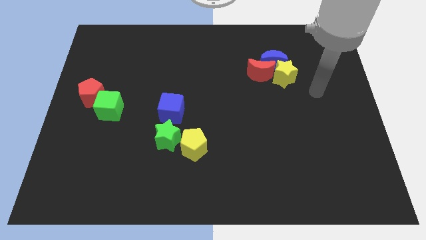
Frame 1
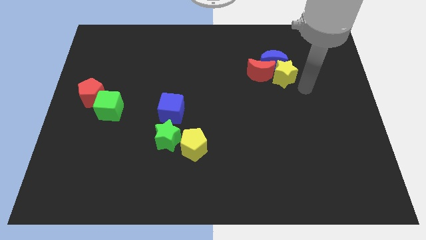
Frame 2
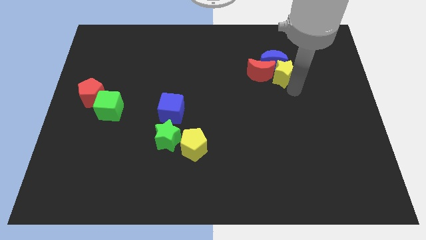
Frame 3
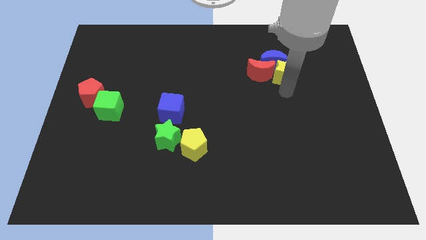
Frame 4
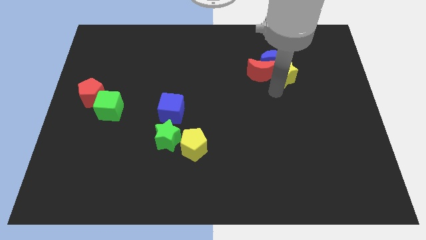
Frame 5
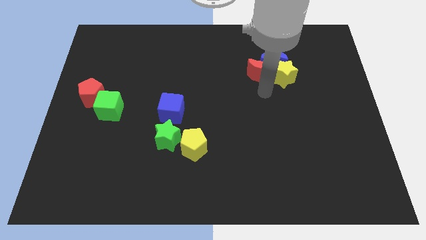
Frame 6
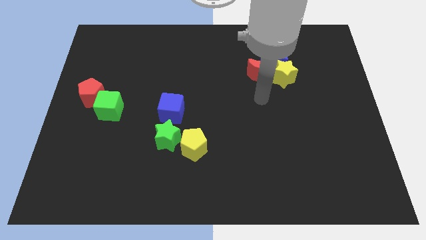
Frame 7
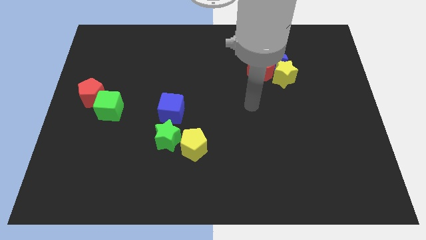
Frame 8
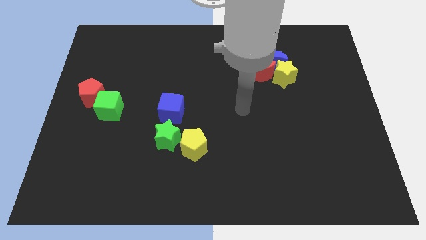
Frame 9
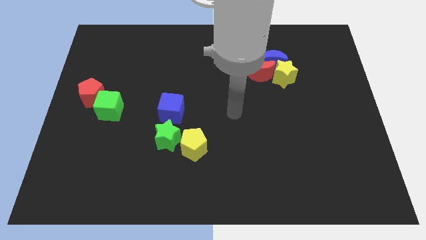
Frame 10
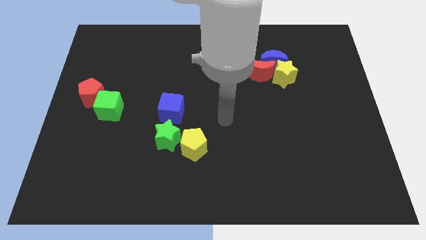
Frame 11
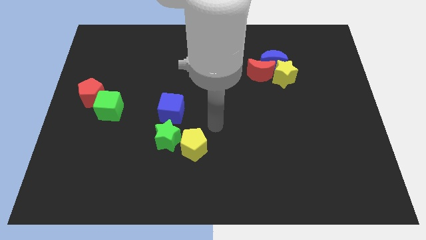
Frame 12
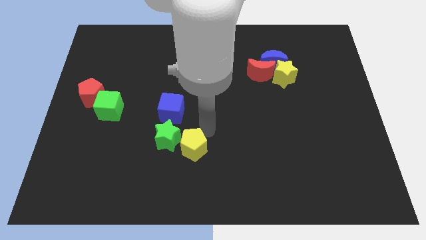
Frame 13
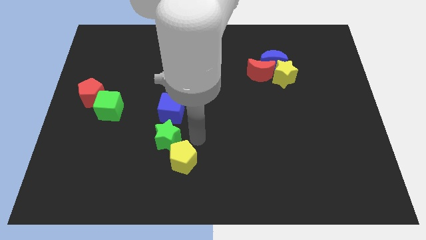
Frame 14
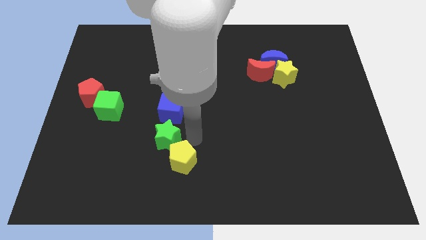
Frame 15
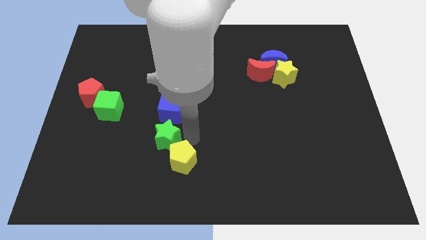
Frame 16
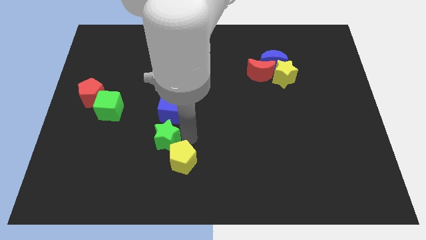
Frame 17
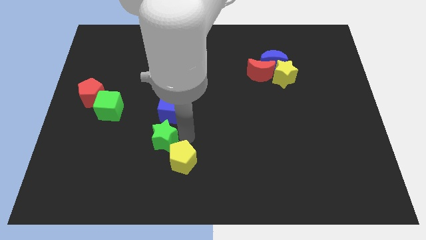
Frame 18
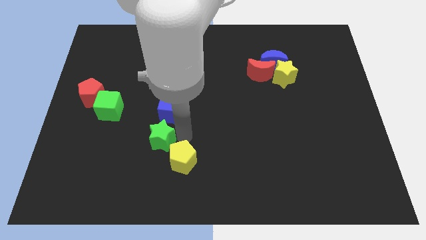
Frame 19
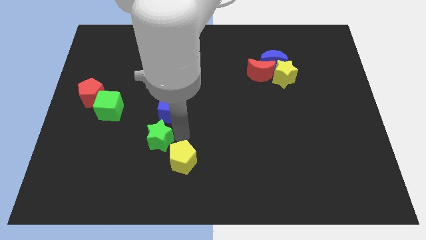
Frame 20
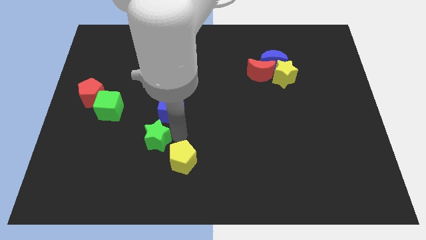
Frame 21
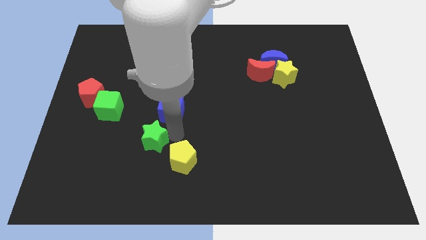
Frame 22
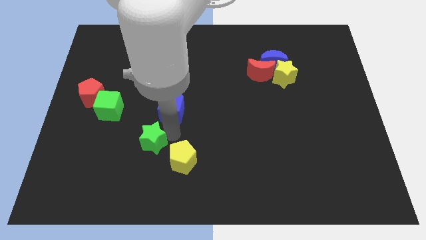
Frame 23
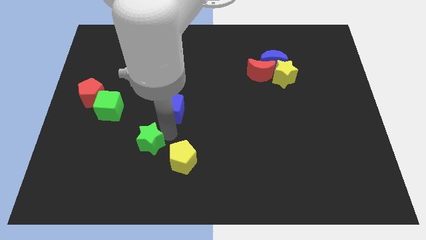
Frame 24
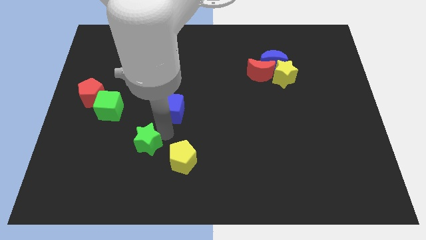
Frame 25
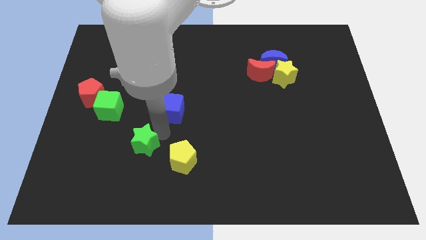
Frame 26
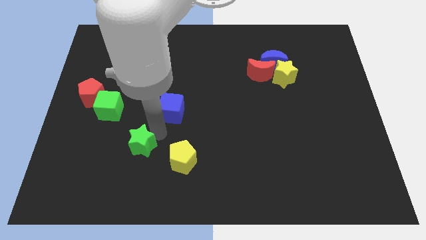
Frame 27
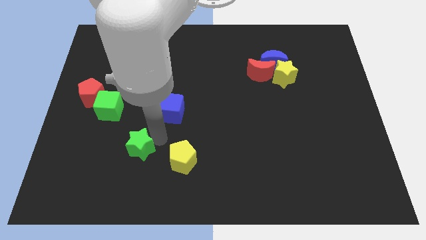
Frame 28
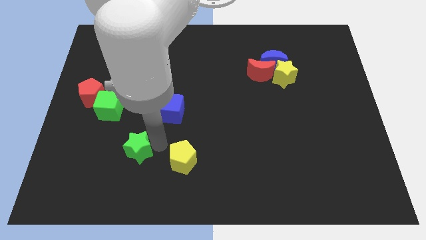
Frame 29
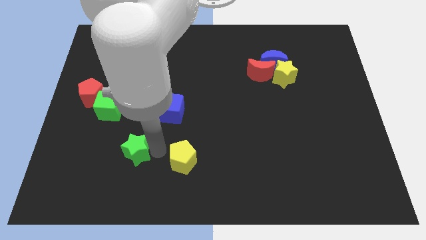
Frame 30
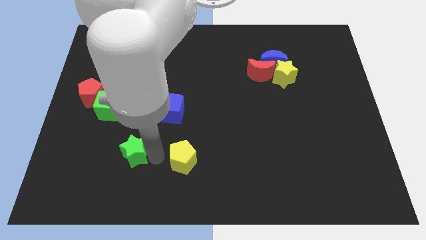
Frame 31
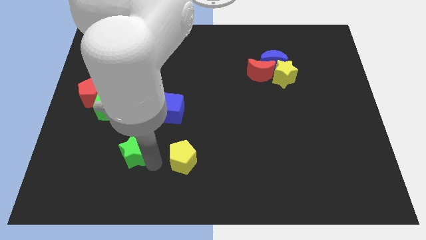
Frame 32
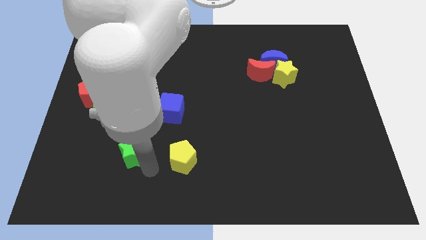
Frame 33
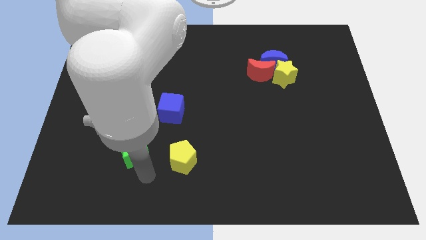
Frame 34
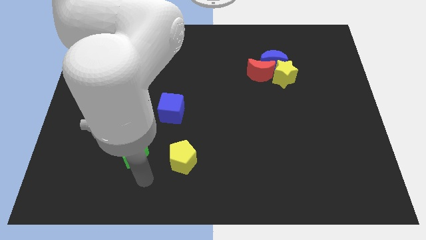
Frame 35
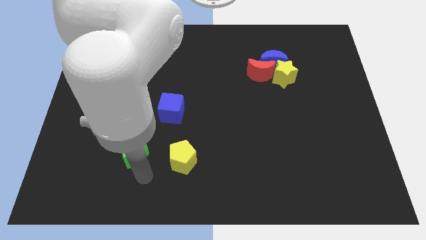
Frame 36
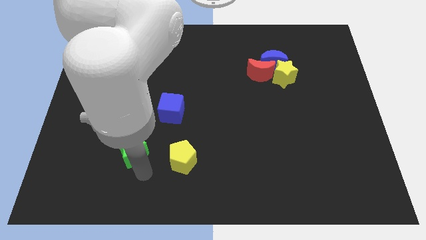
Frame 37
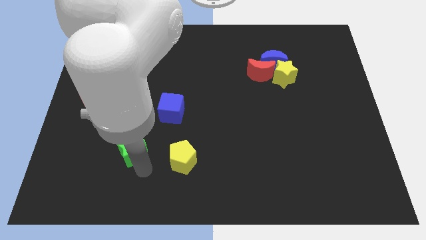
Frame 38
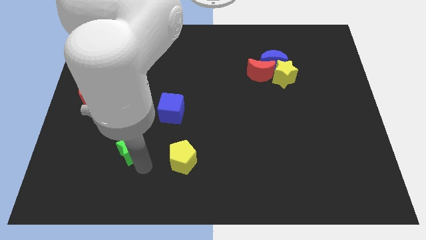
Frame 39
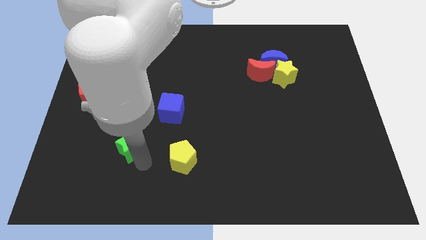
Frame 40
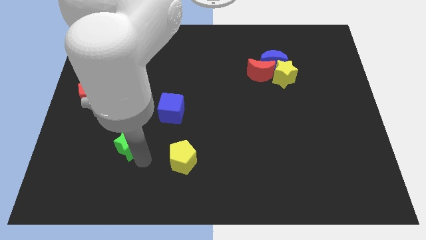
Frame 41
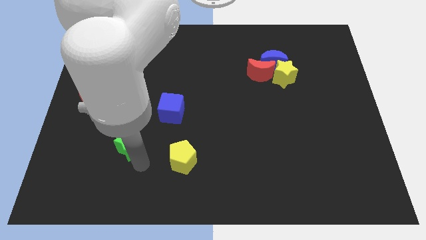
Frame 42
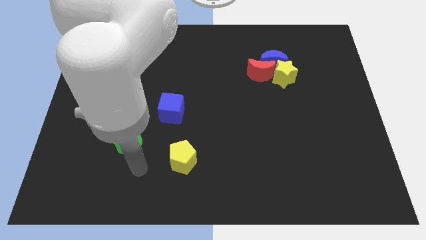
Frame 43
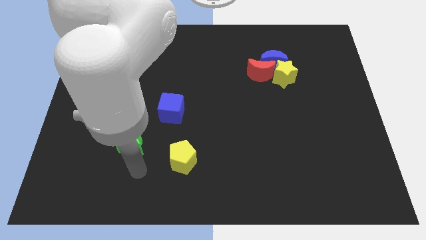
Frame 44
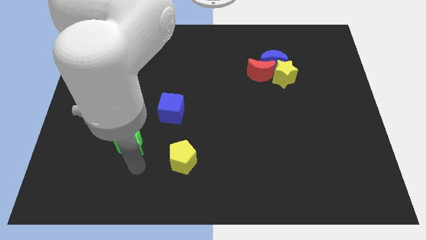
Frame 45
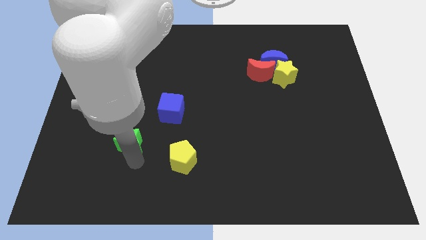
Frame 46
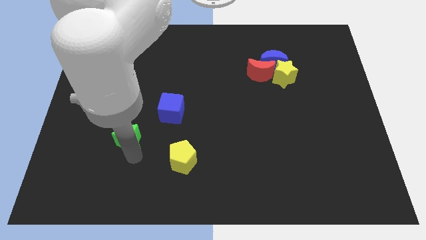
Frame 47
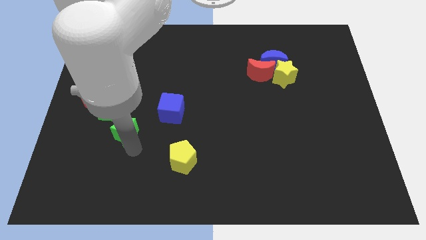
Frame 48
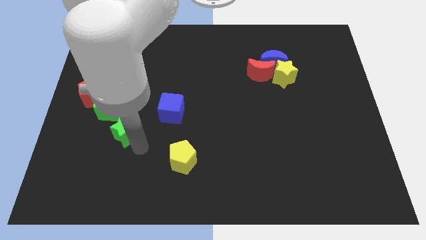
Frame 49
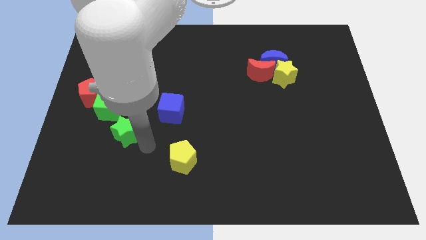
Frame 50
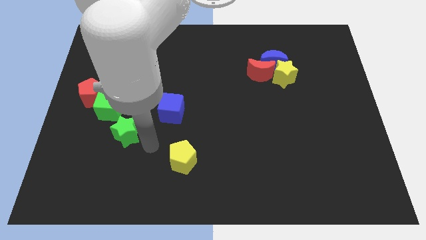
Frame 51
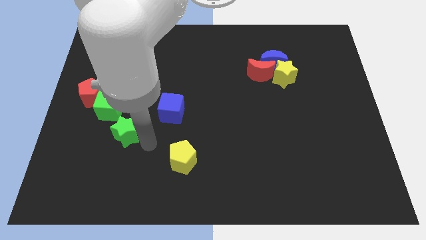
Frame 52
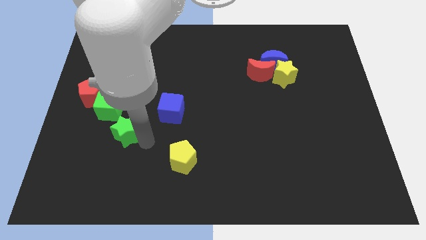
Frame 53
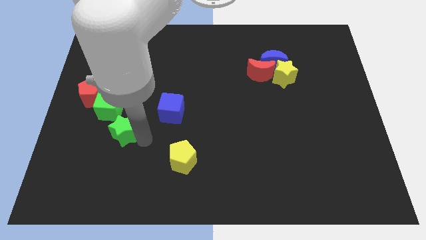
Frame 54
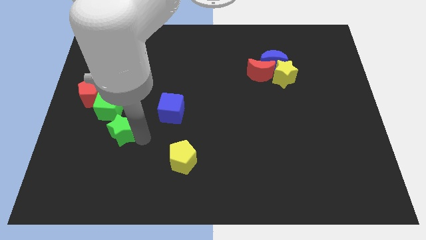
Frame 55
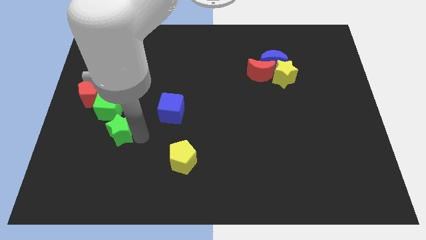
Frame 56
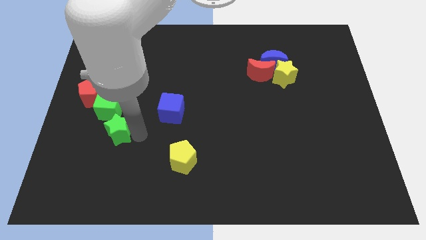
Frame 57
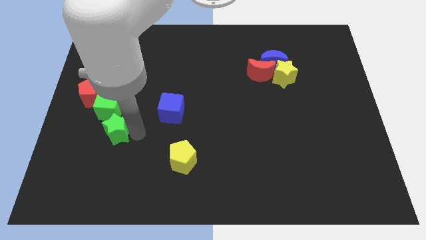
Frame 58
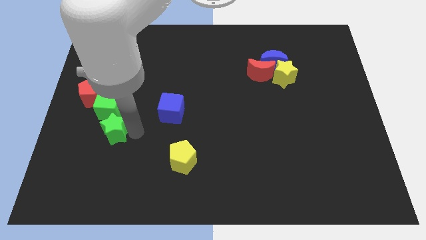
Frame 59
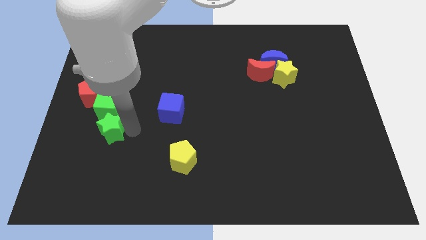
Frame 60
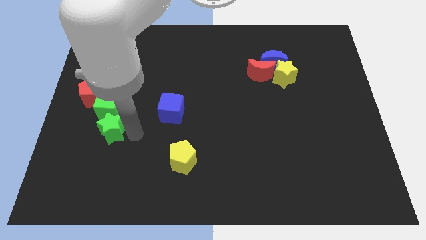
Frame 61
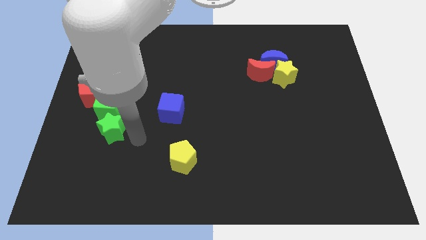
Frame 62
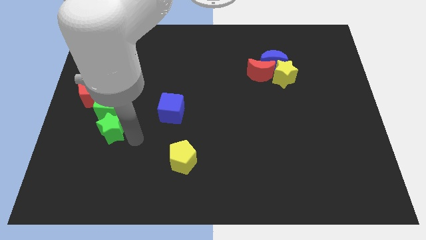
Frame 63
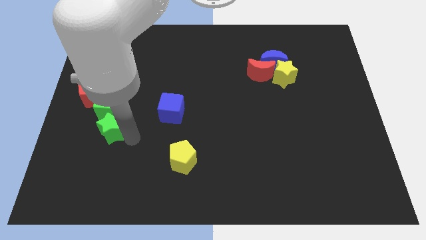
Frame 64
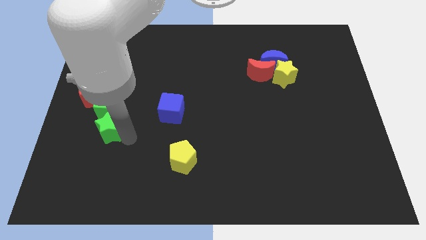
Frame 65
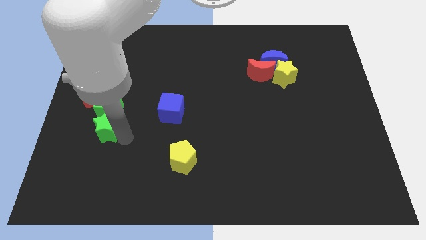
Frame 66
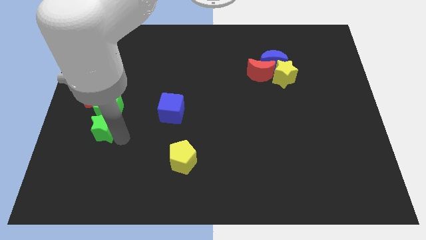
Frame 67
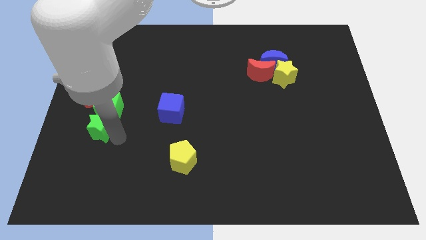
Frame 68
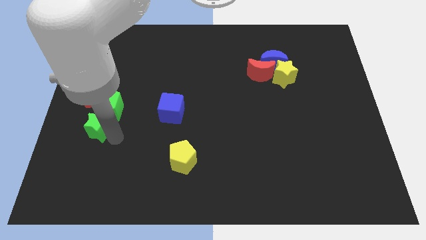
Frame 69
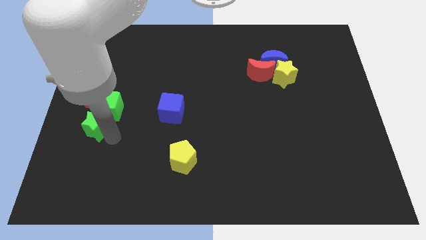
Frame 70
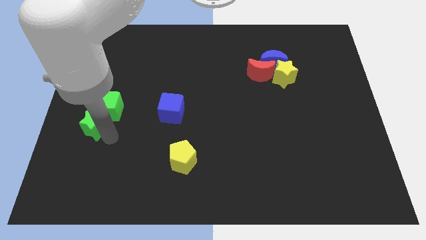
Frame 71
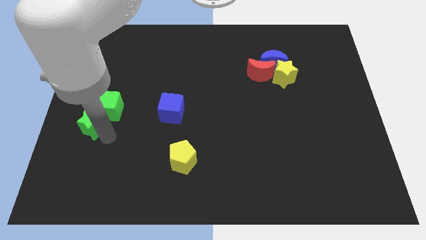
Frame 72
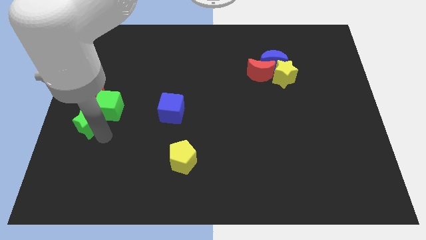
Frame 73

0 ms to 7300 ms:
slide the green star to the center left

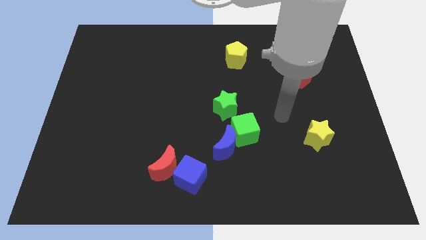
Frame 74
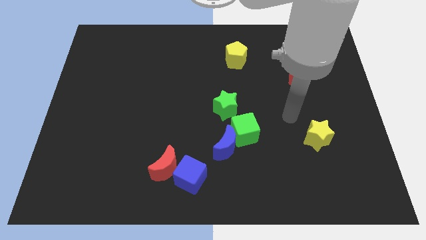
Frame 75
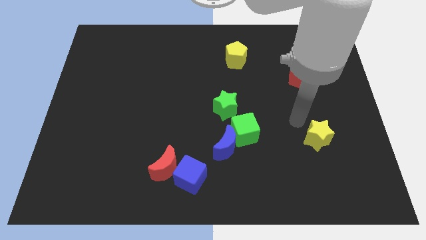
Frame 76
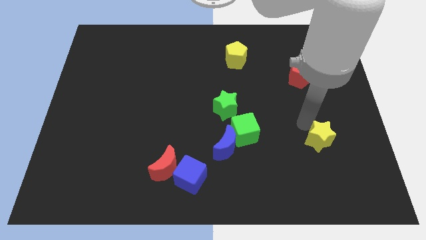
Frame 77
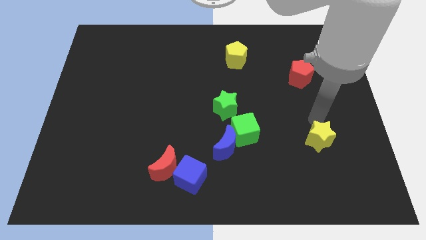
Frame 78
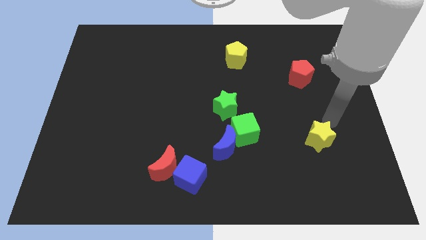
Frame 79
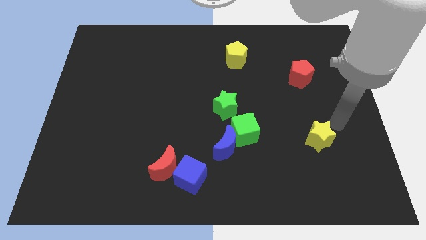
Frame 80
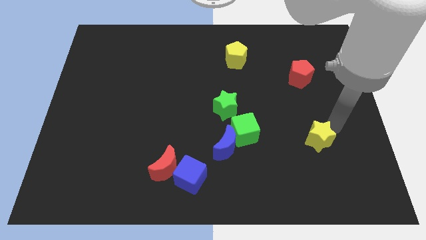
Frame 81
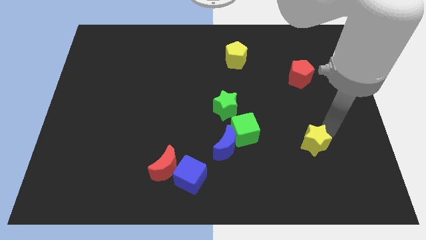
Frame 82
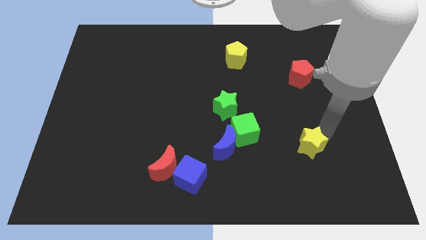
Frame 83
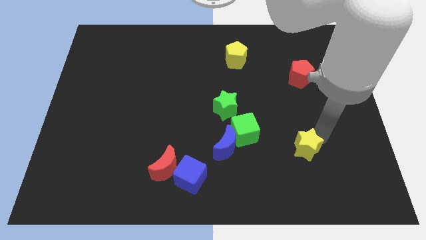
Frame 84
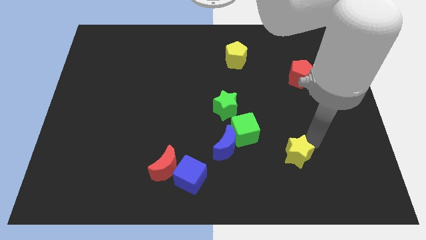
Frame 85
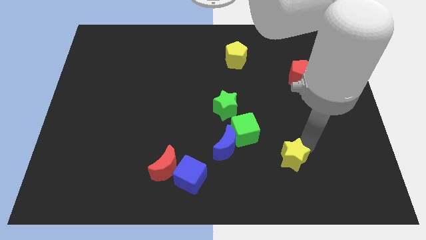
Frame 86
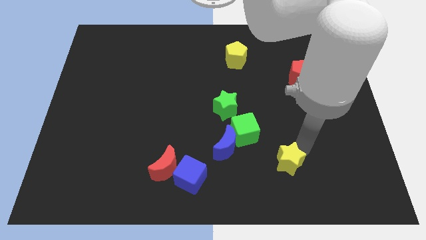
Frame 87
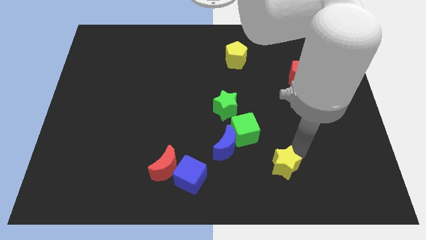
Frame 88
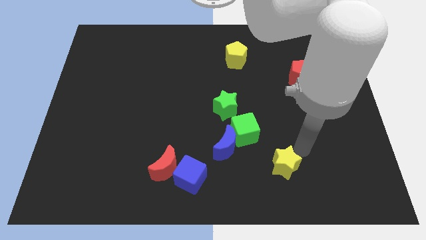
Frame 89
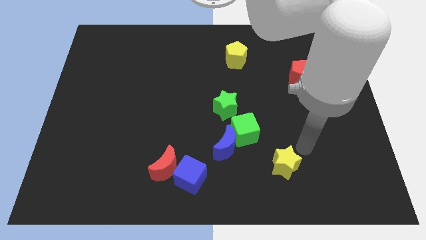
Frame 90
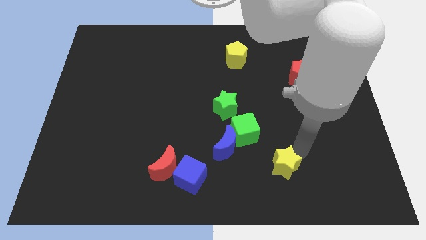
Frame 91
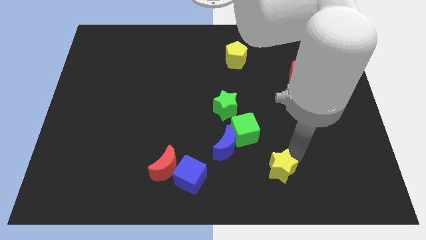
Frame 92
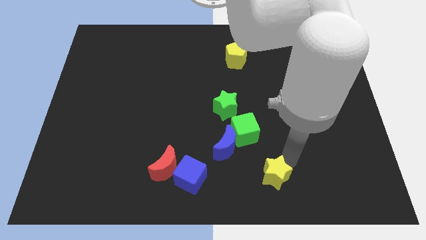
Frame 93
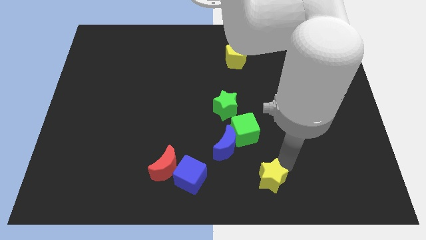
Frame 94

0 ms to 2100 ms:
push the yellow star to the bottom side
